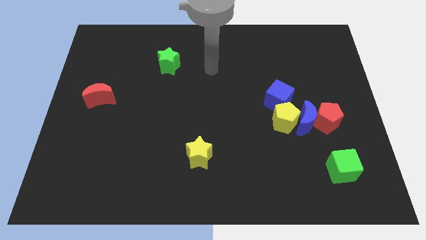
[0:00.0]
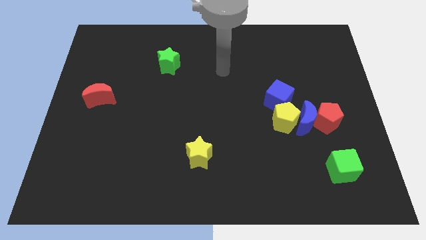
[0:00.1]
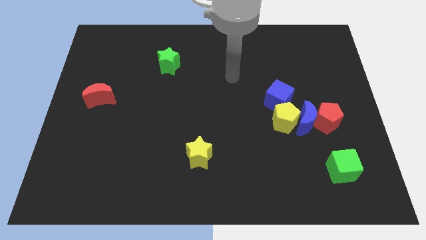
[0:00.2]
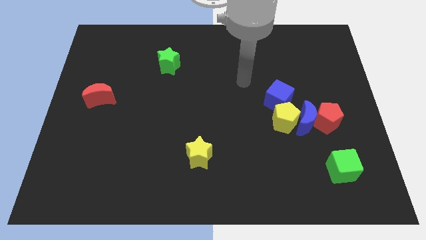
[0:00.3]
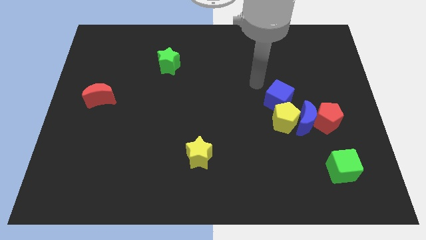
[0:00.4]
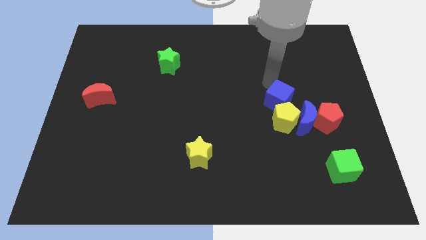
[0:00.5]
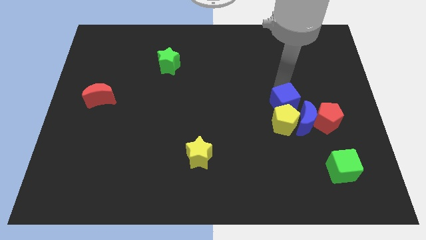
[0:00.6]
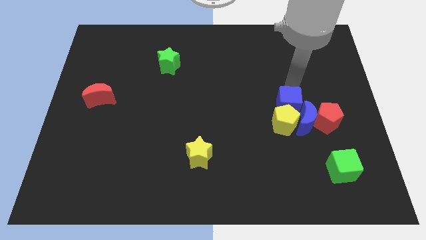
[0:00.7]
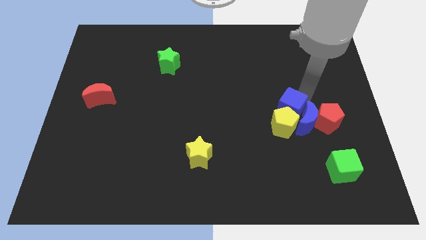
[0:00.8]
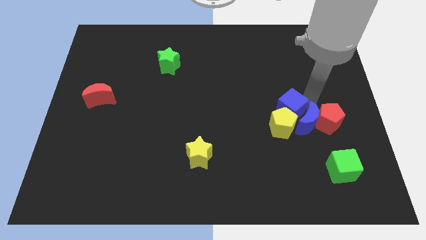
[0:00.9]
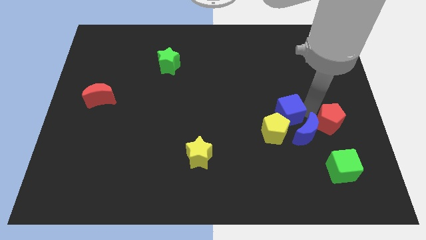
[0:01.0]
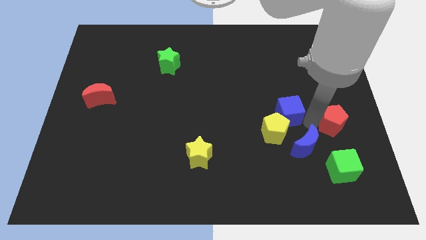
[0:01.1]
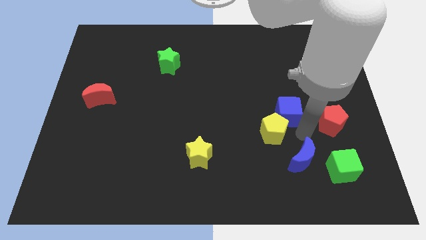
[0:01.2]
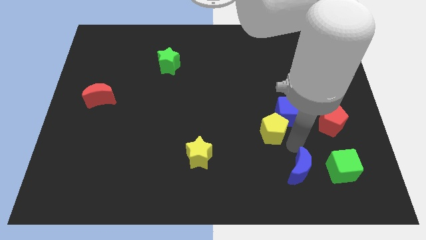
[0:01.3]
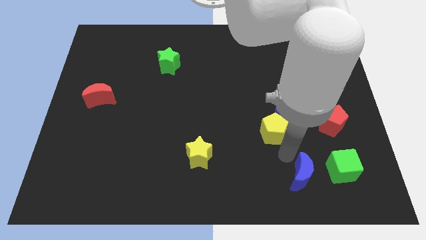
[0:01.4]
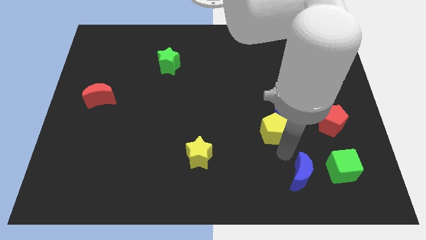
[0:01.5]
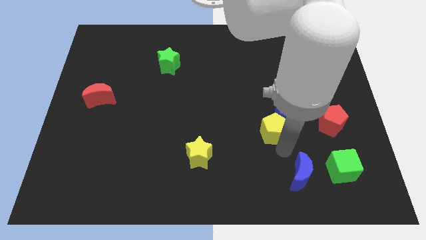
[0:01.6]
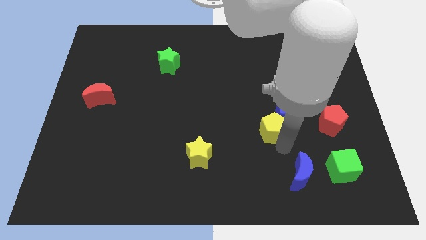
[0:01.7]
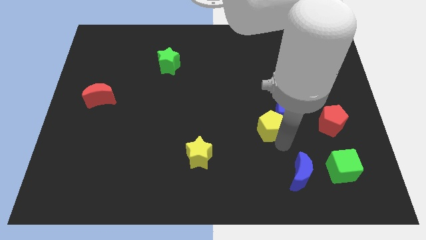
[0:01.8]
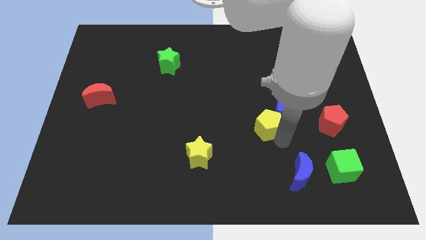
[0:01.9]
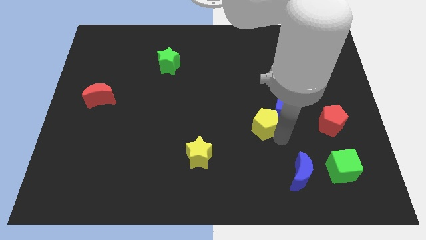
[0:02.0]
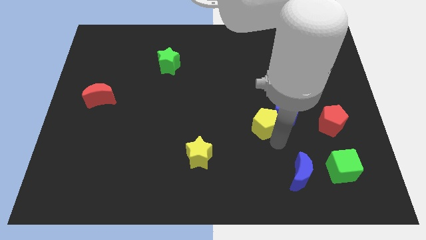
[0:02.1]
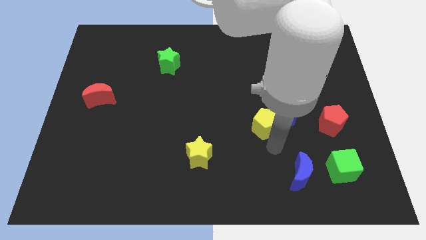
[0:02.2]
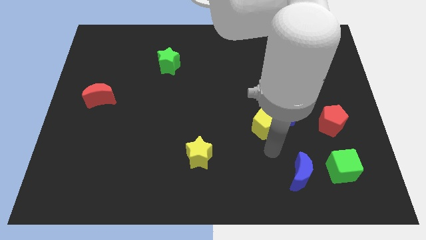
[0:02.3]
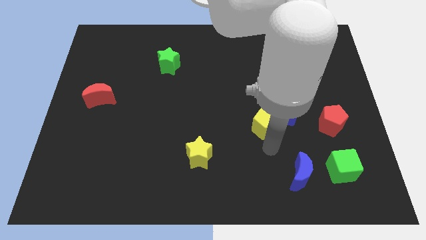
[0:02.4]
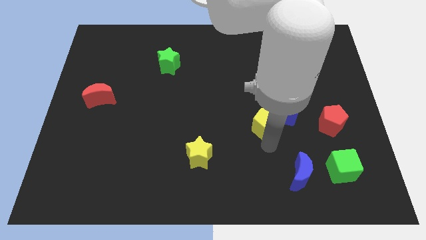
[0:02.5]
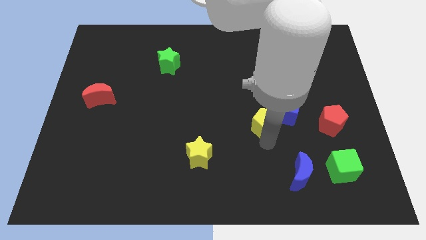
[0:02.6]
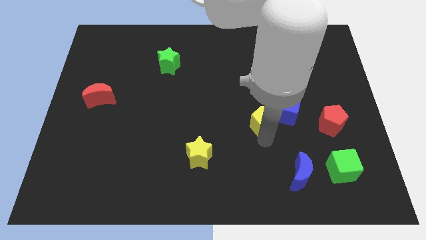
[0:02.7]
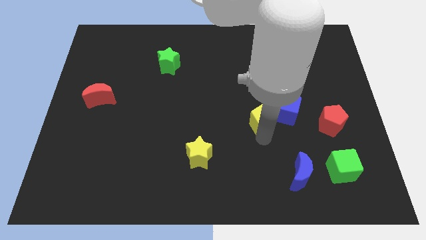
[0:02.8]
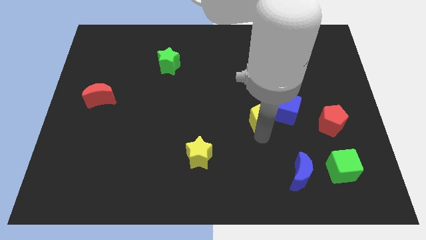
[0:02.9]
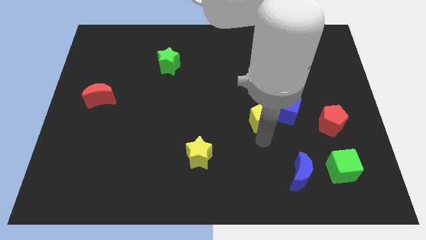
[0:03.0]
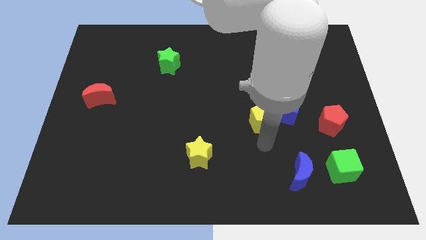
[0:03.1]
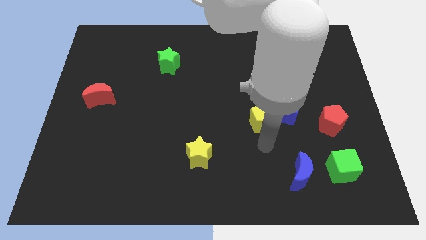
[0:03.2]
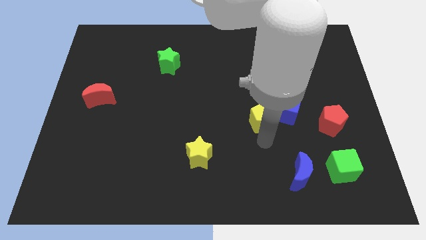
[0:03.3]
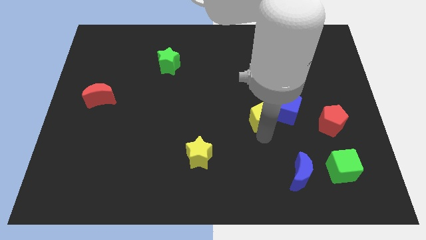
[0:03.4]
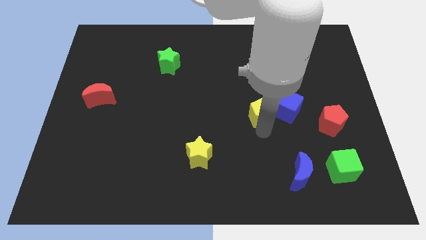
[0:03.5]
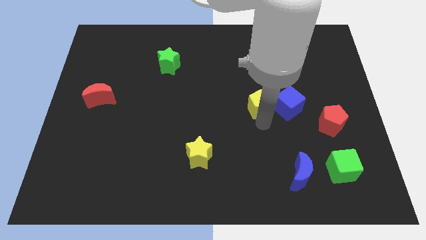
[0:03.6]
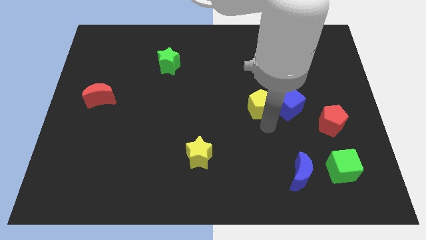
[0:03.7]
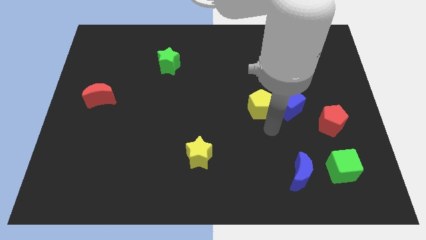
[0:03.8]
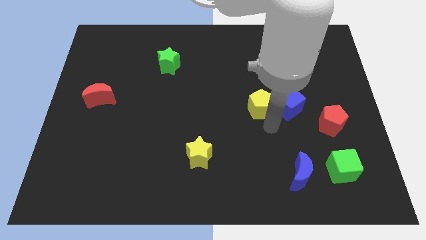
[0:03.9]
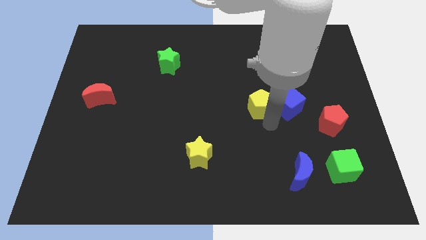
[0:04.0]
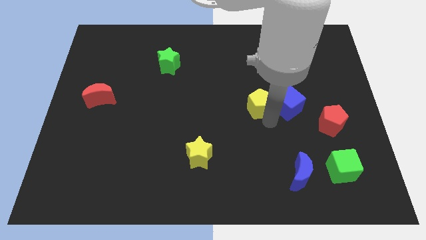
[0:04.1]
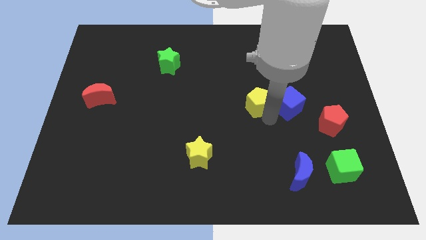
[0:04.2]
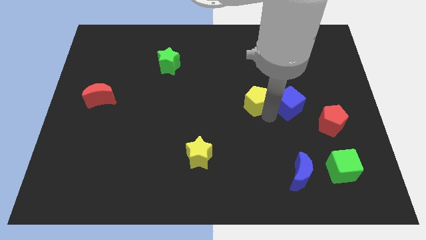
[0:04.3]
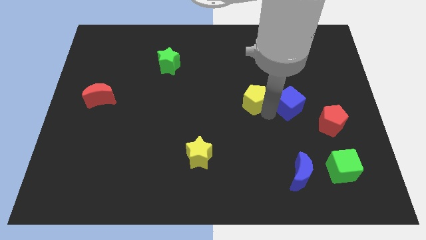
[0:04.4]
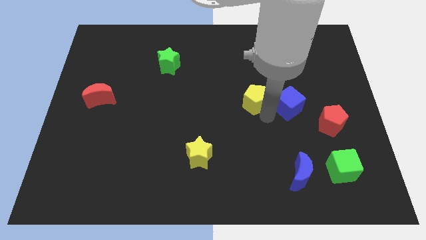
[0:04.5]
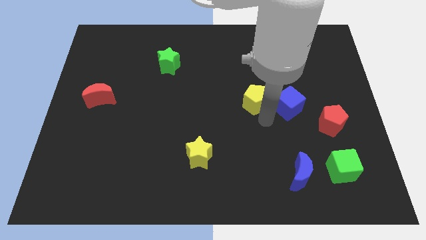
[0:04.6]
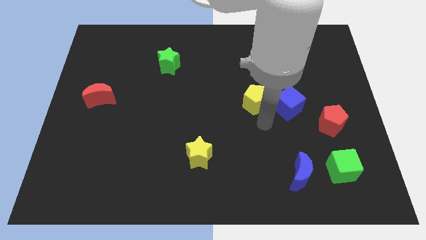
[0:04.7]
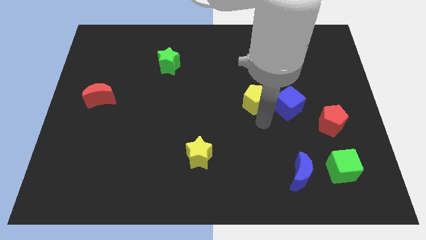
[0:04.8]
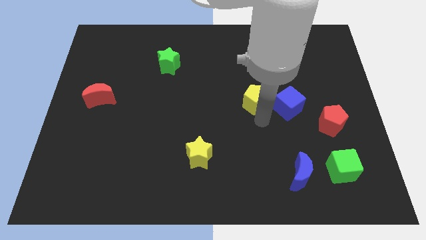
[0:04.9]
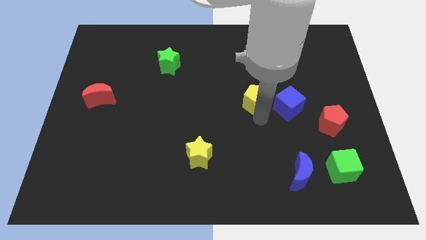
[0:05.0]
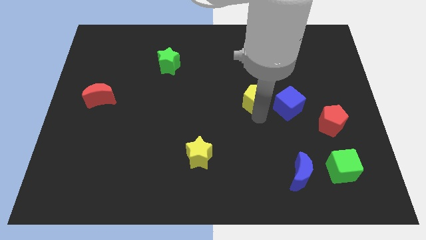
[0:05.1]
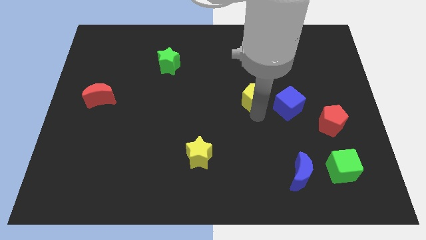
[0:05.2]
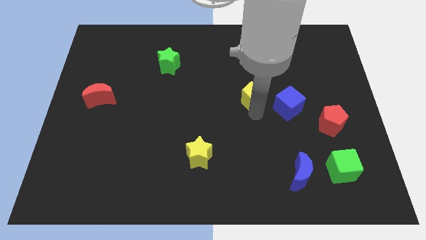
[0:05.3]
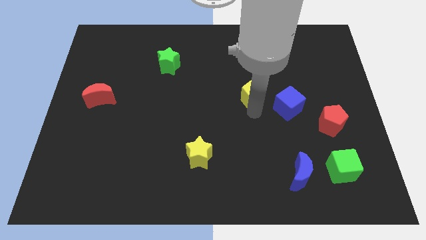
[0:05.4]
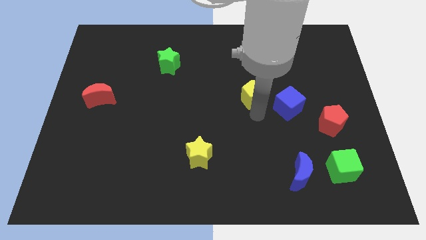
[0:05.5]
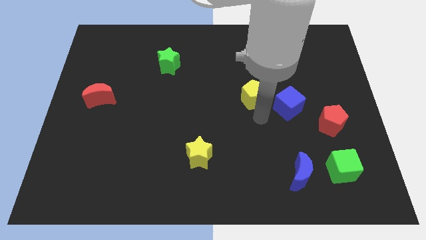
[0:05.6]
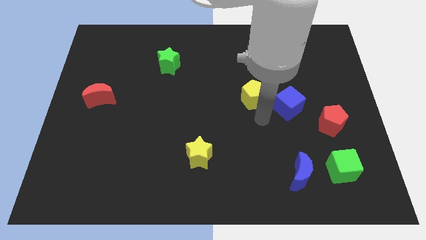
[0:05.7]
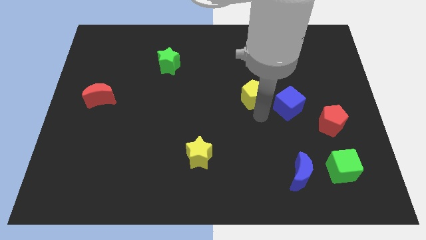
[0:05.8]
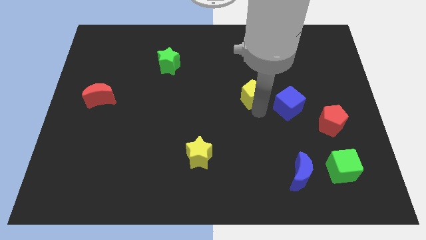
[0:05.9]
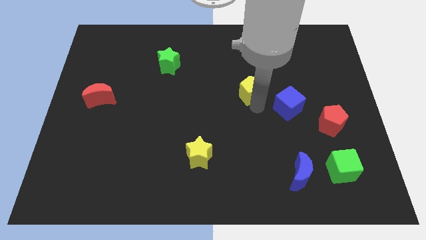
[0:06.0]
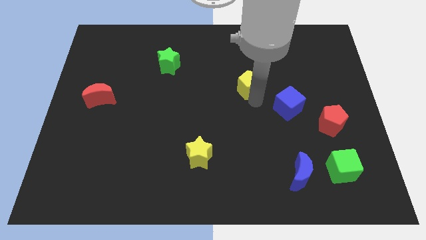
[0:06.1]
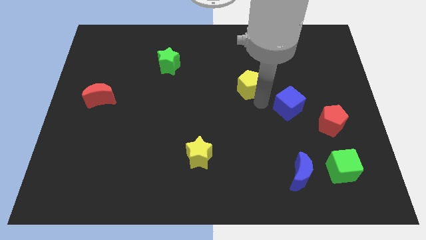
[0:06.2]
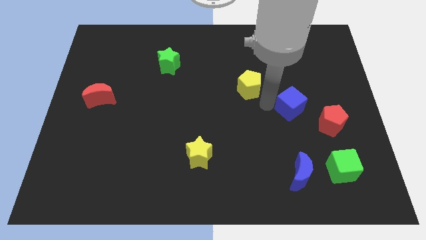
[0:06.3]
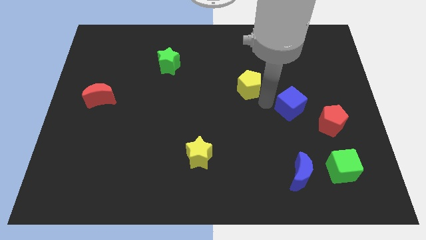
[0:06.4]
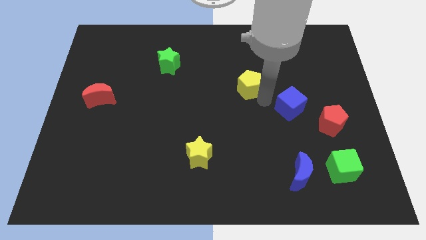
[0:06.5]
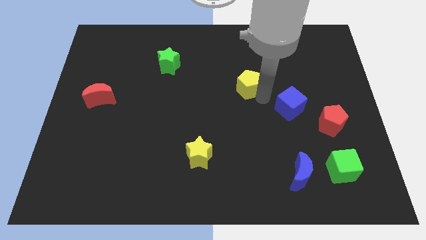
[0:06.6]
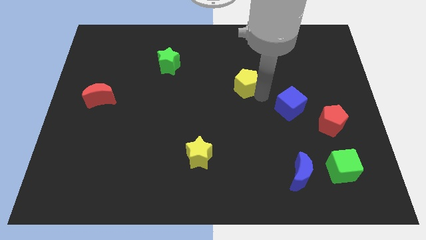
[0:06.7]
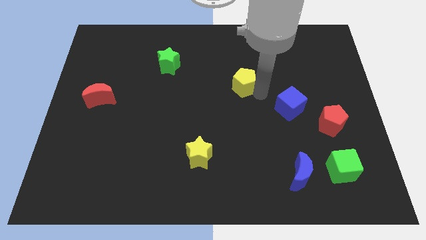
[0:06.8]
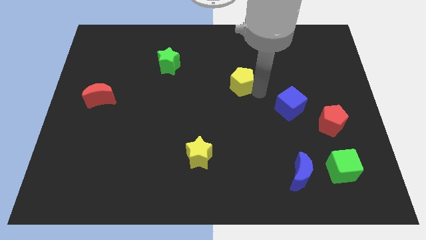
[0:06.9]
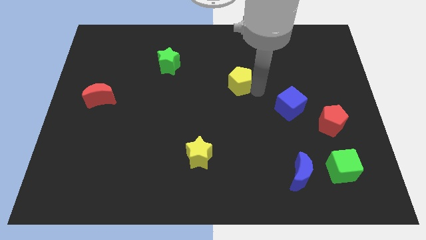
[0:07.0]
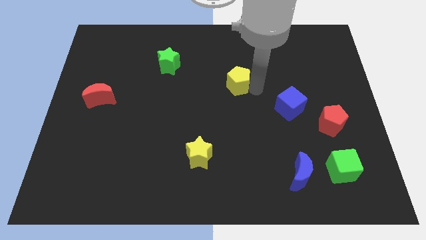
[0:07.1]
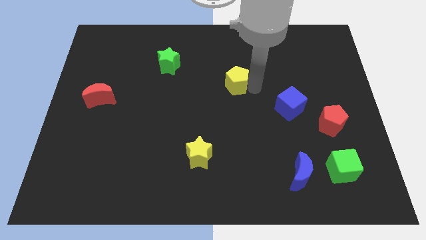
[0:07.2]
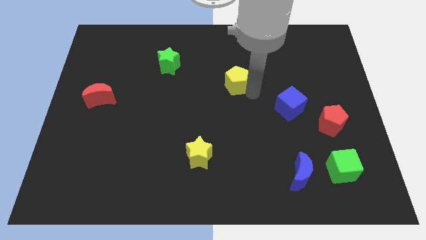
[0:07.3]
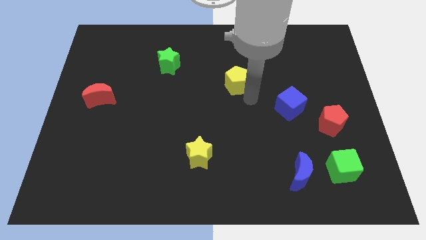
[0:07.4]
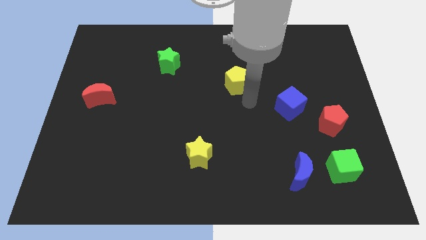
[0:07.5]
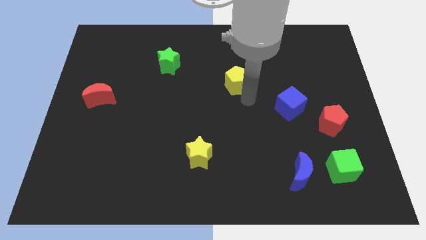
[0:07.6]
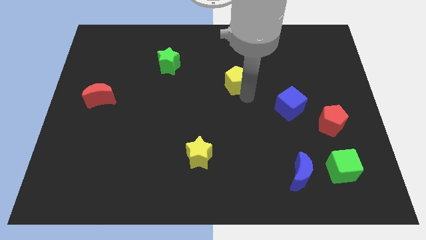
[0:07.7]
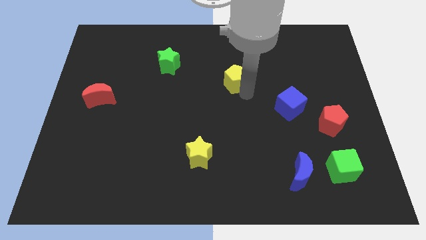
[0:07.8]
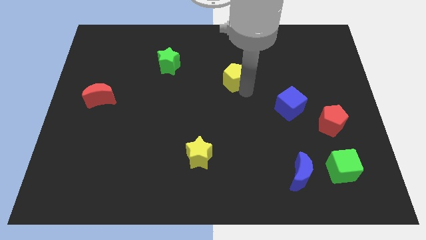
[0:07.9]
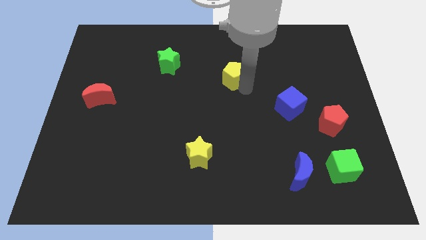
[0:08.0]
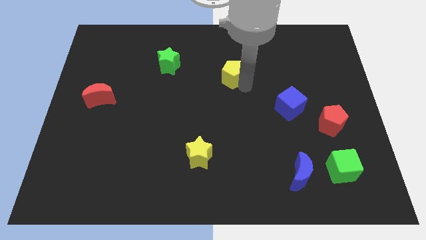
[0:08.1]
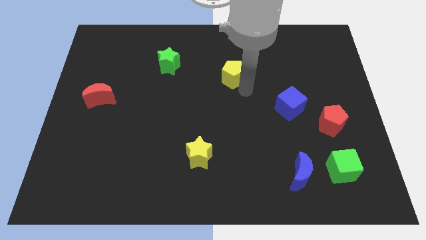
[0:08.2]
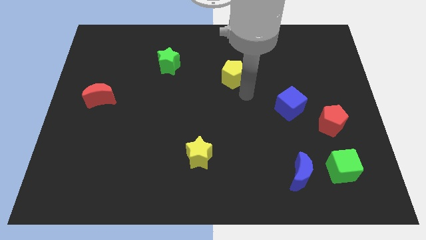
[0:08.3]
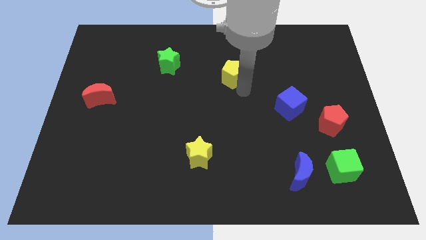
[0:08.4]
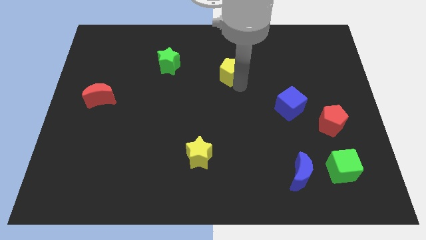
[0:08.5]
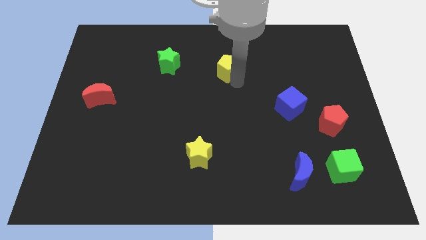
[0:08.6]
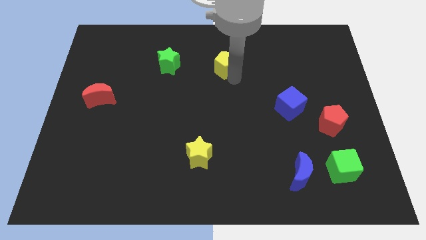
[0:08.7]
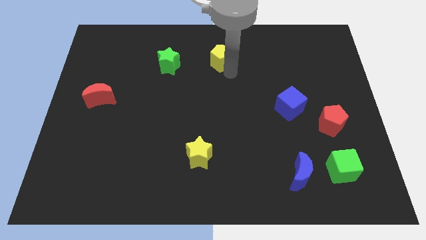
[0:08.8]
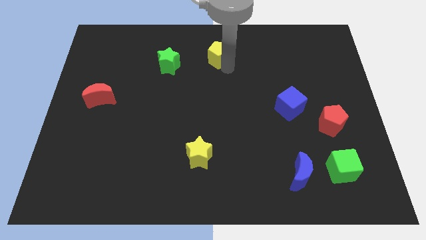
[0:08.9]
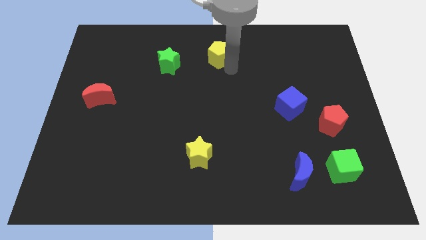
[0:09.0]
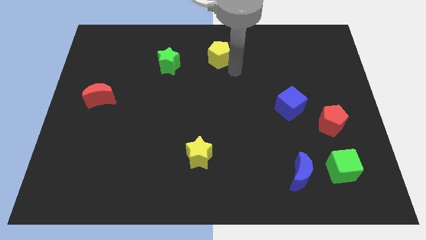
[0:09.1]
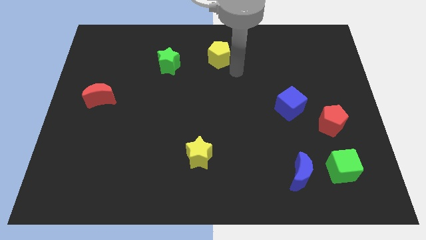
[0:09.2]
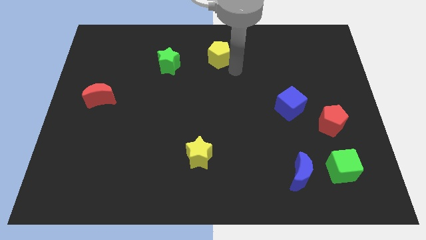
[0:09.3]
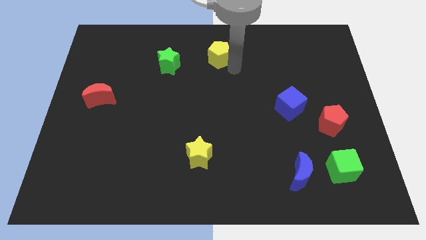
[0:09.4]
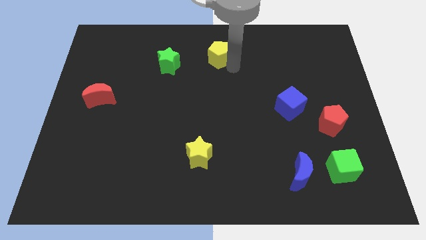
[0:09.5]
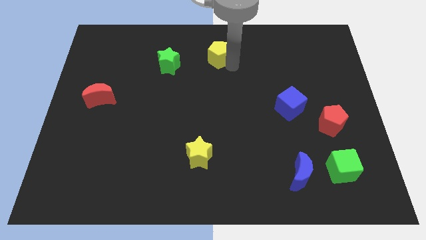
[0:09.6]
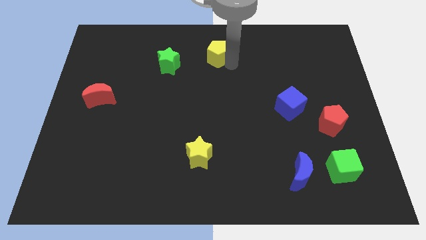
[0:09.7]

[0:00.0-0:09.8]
move the yellow pentagon to the top
